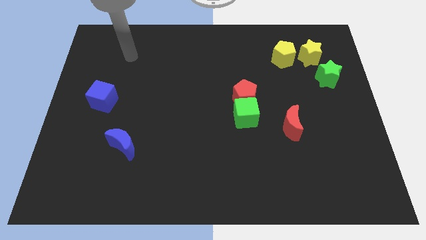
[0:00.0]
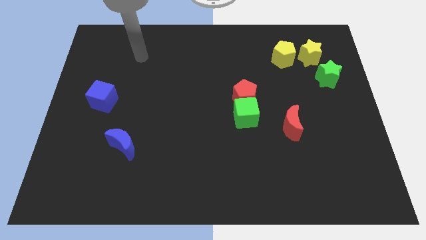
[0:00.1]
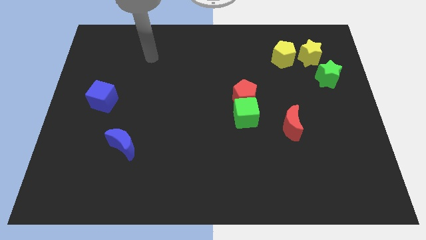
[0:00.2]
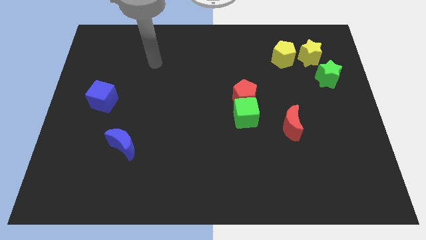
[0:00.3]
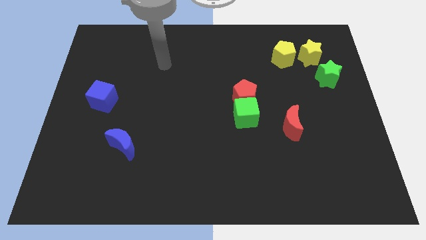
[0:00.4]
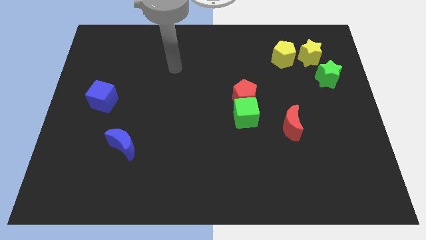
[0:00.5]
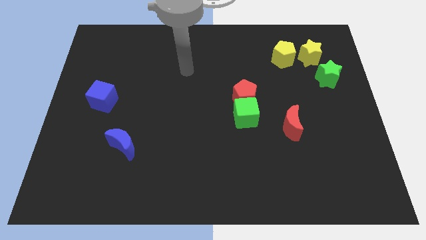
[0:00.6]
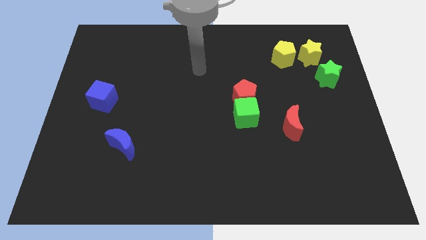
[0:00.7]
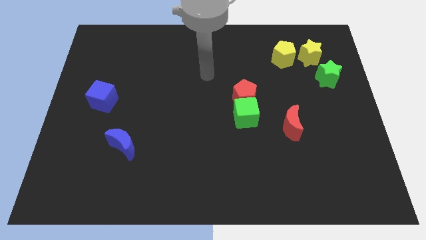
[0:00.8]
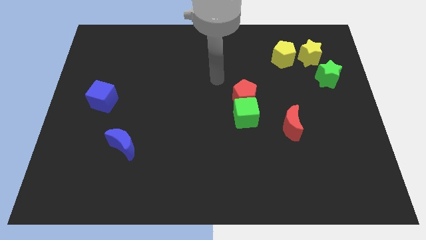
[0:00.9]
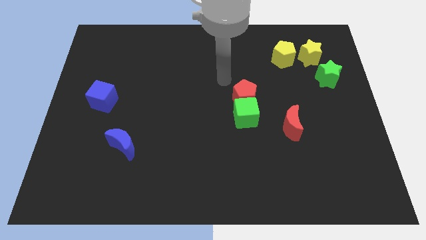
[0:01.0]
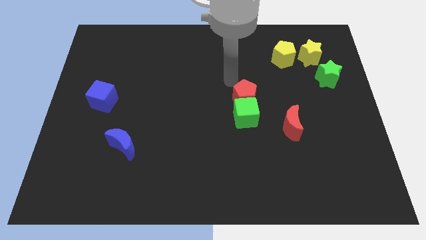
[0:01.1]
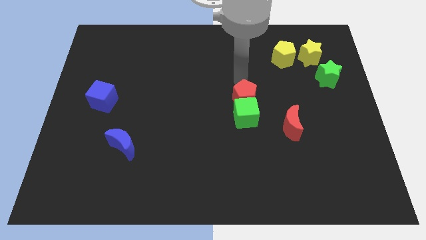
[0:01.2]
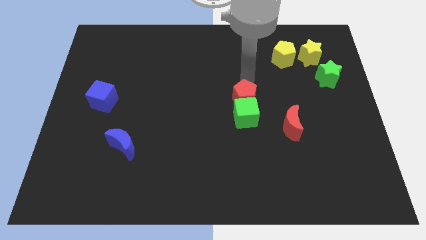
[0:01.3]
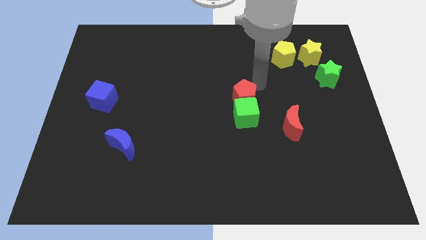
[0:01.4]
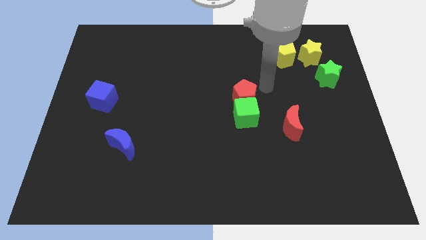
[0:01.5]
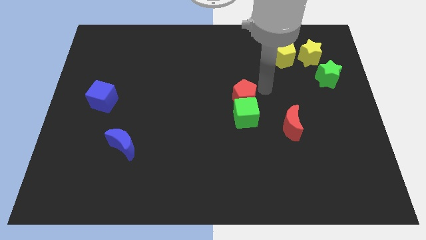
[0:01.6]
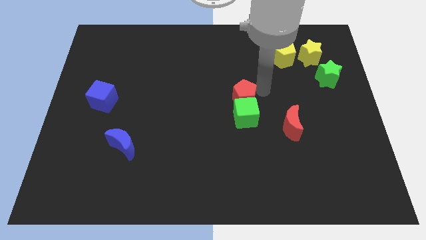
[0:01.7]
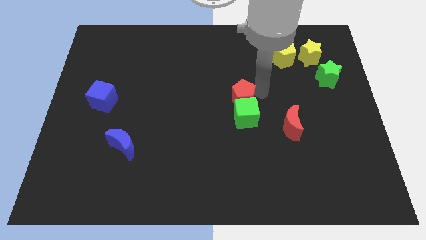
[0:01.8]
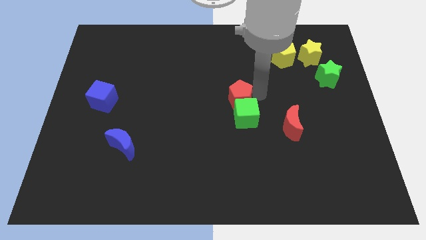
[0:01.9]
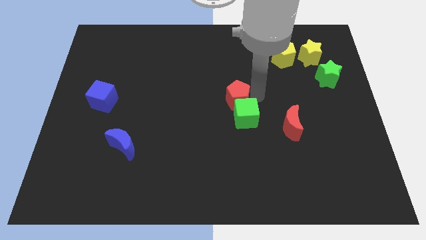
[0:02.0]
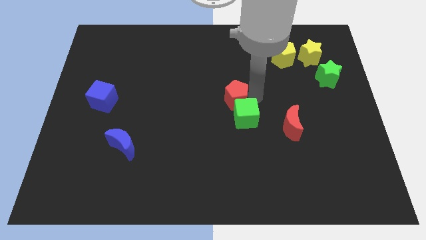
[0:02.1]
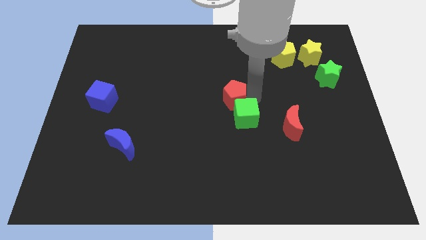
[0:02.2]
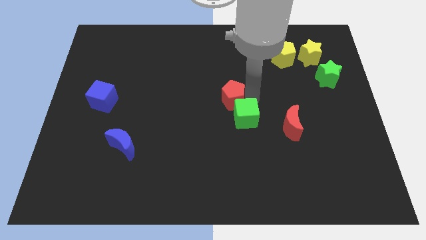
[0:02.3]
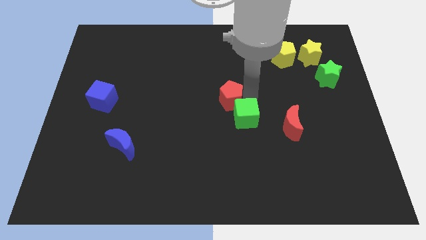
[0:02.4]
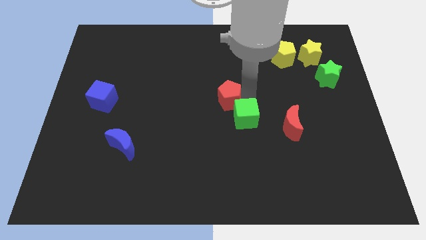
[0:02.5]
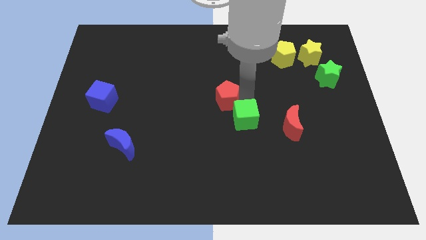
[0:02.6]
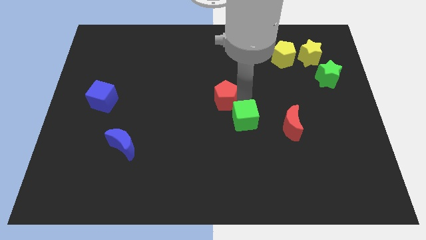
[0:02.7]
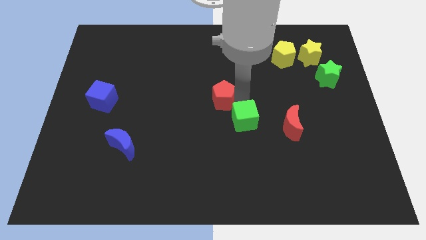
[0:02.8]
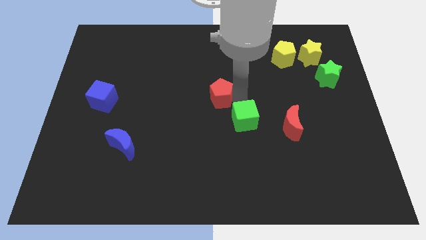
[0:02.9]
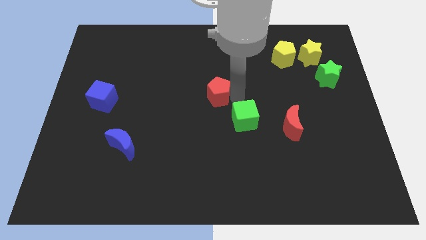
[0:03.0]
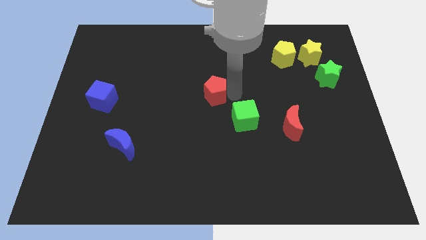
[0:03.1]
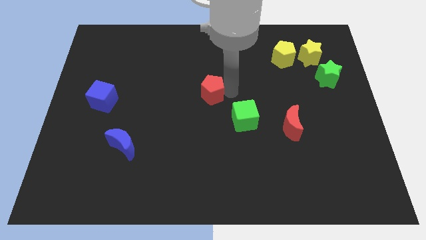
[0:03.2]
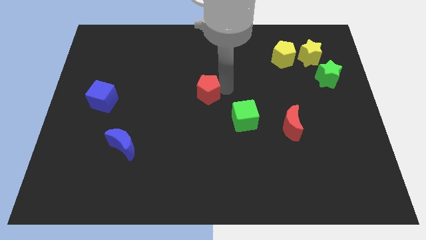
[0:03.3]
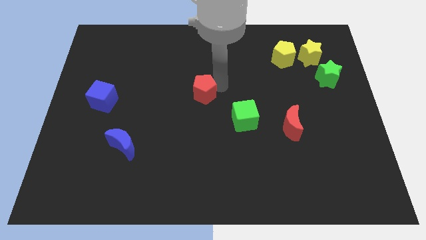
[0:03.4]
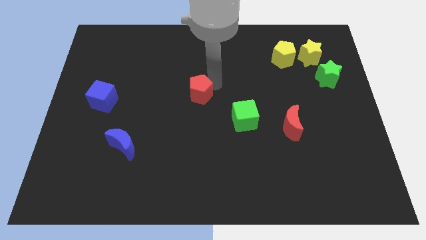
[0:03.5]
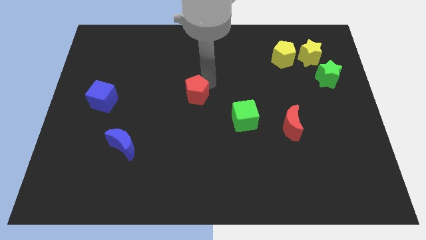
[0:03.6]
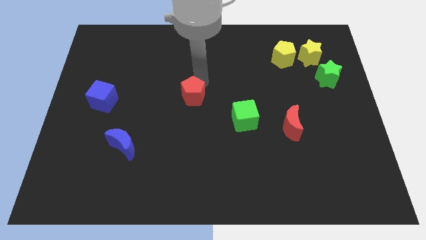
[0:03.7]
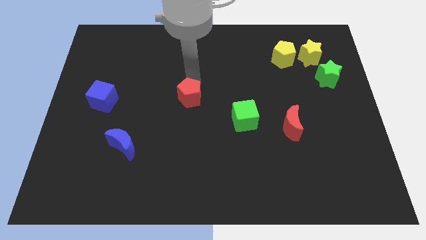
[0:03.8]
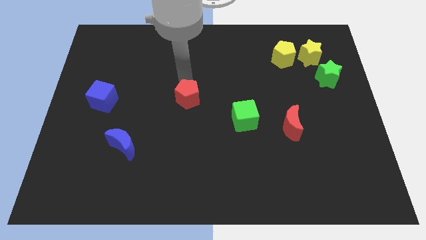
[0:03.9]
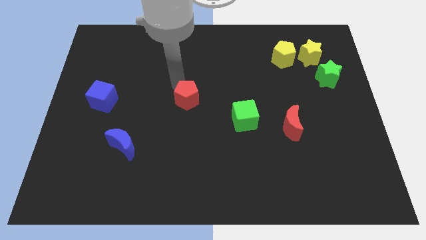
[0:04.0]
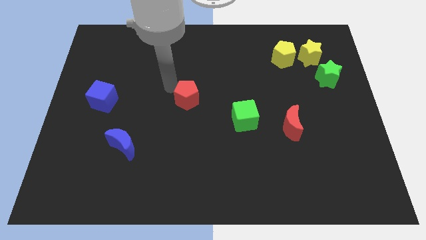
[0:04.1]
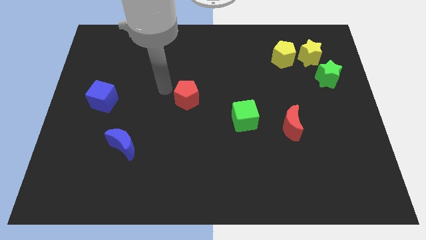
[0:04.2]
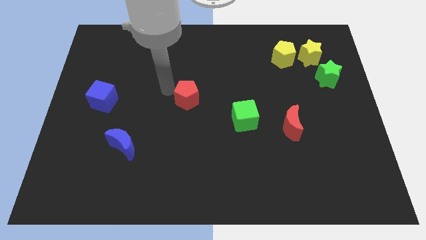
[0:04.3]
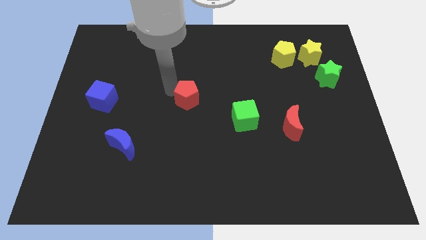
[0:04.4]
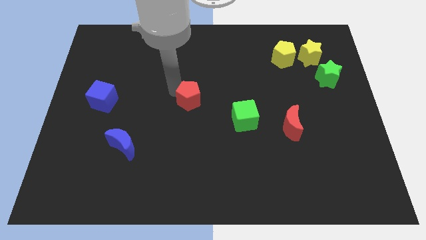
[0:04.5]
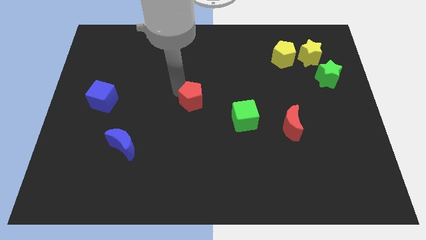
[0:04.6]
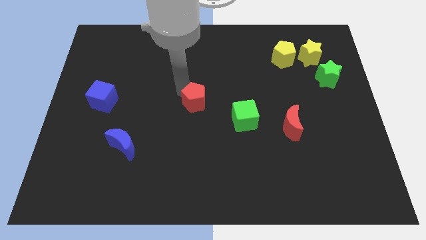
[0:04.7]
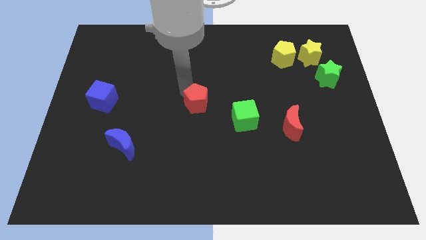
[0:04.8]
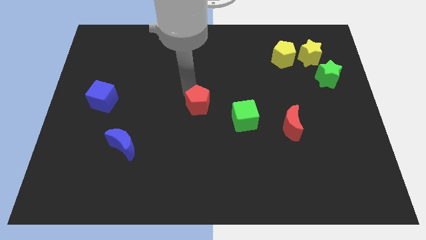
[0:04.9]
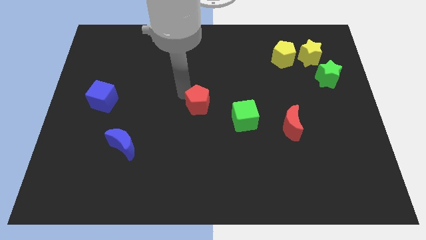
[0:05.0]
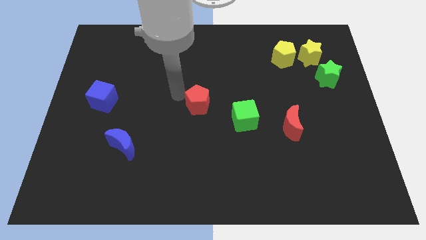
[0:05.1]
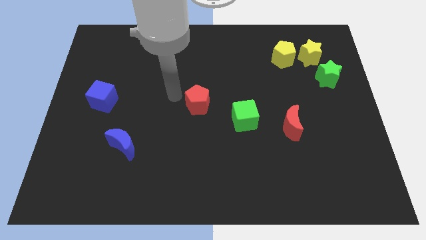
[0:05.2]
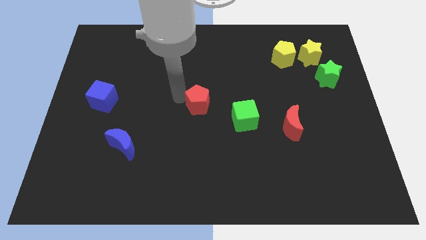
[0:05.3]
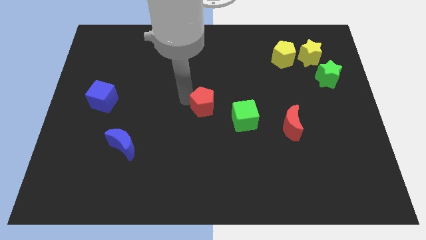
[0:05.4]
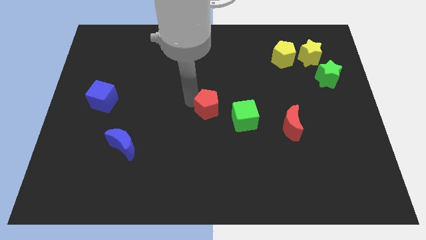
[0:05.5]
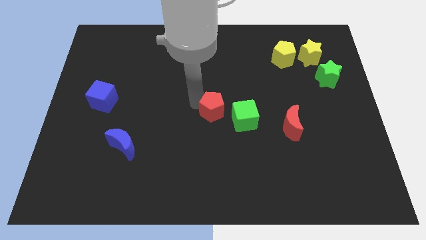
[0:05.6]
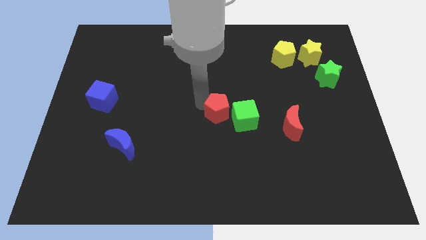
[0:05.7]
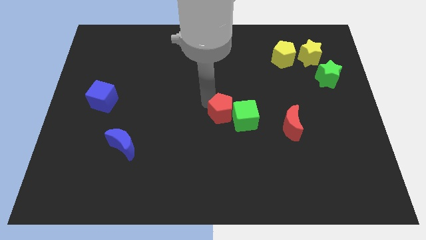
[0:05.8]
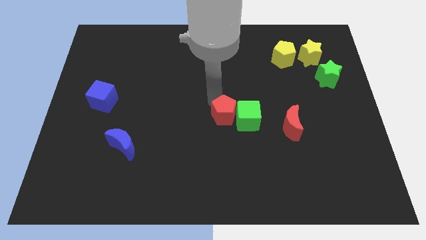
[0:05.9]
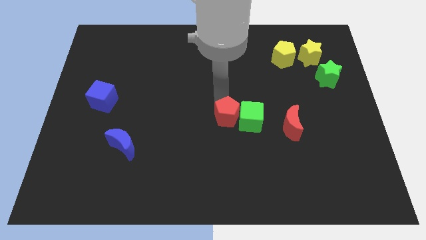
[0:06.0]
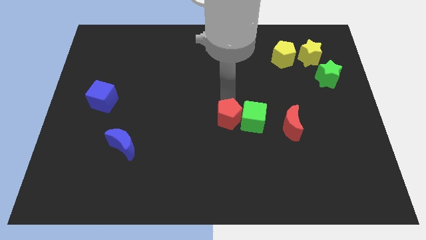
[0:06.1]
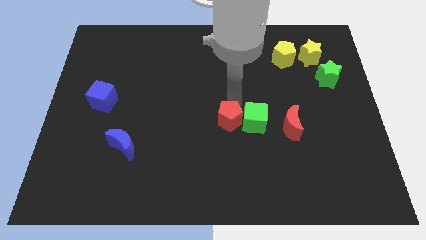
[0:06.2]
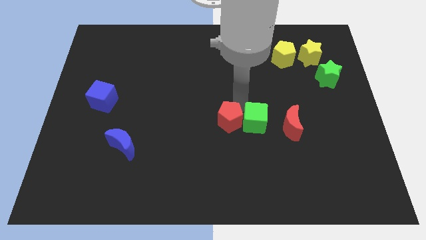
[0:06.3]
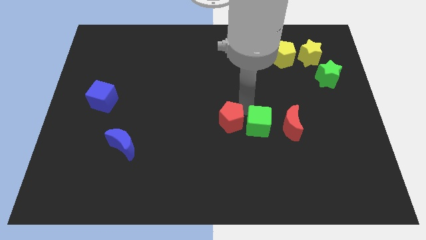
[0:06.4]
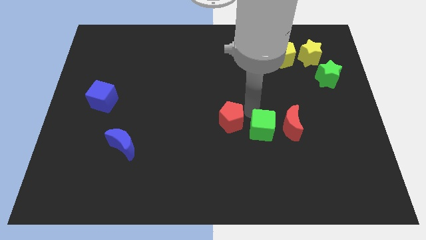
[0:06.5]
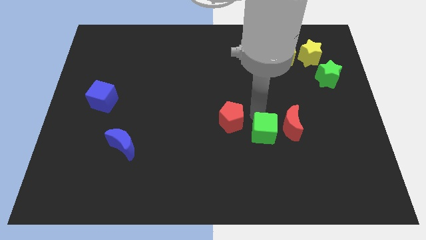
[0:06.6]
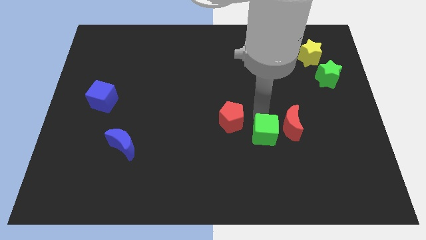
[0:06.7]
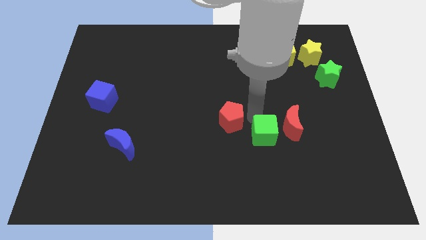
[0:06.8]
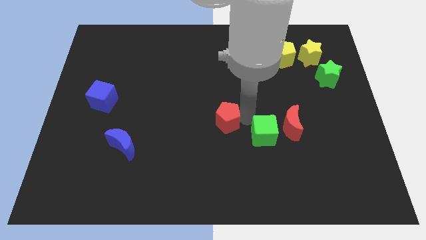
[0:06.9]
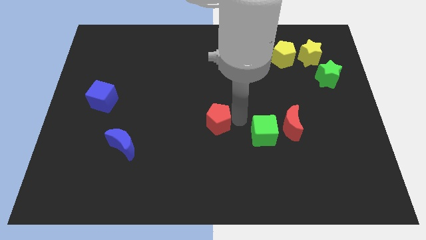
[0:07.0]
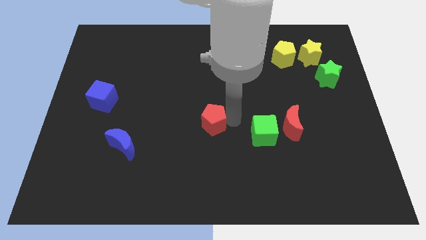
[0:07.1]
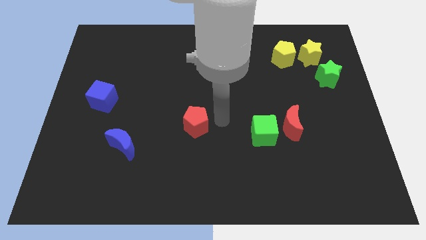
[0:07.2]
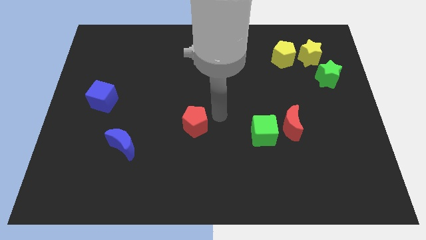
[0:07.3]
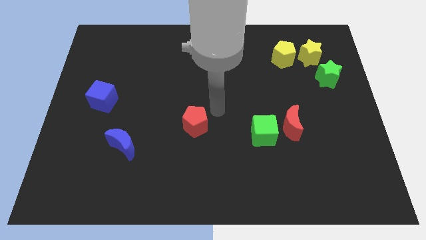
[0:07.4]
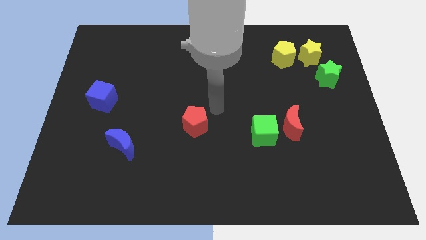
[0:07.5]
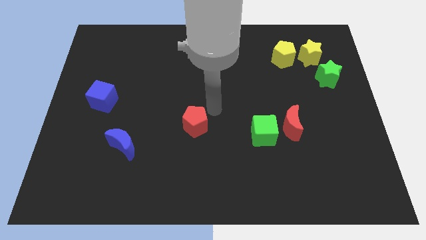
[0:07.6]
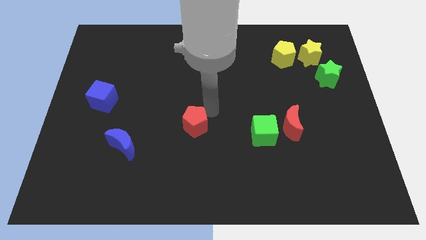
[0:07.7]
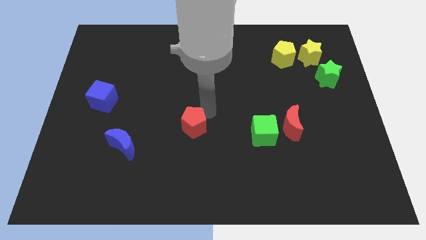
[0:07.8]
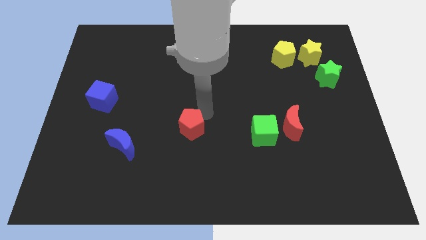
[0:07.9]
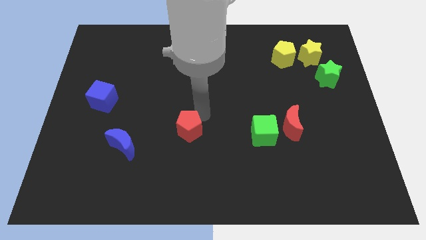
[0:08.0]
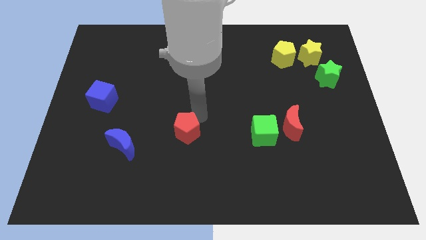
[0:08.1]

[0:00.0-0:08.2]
move the red pentagon to the right side of the blue moon
